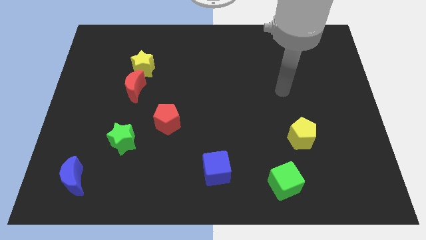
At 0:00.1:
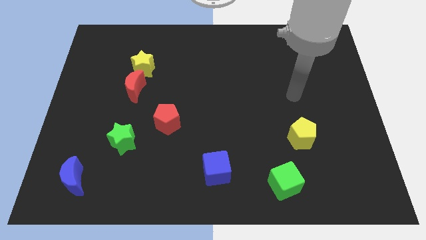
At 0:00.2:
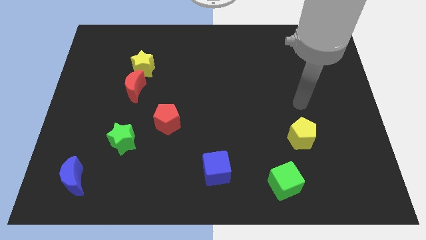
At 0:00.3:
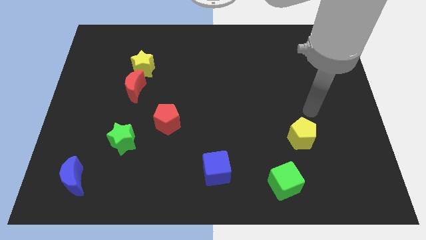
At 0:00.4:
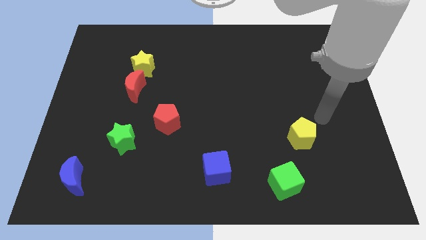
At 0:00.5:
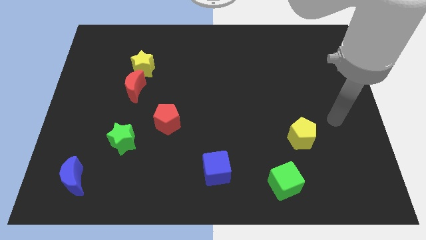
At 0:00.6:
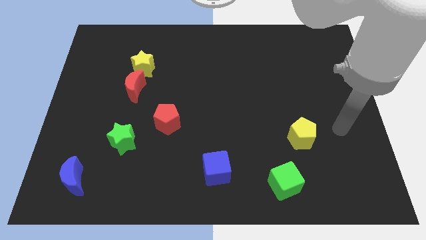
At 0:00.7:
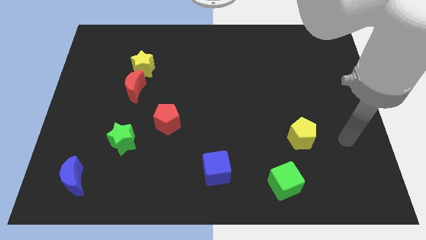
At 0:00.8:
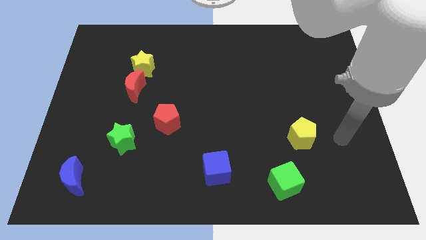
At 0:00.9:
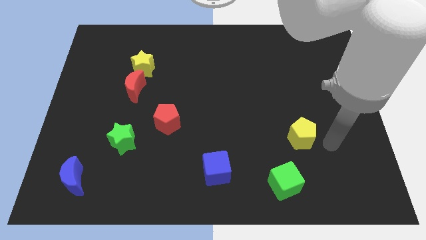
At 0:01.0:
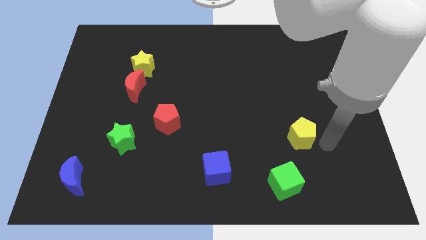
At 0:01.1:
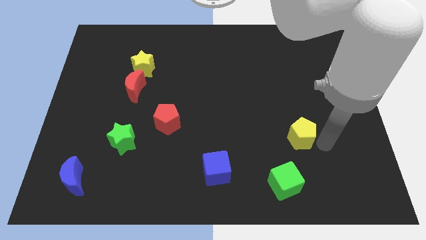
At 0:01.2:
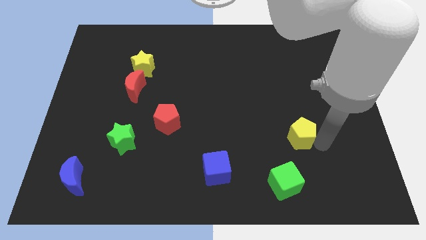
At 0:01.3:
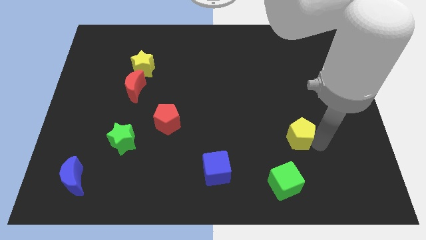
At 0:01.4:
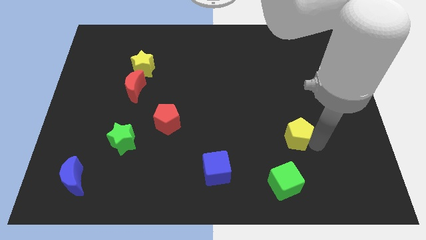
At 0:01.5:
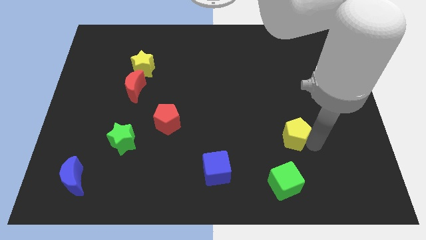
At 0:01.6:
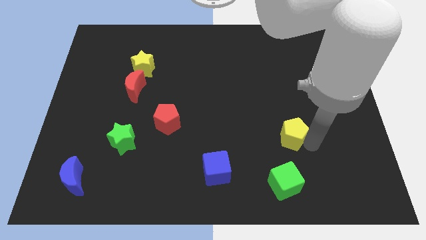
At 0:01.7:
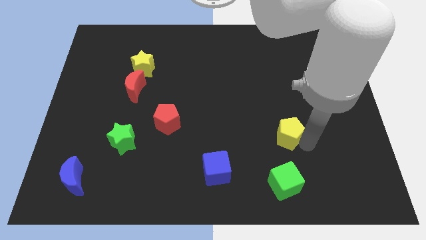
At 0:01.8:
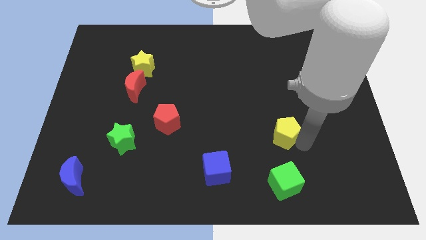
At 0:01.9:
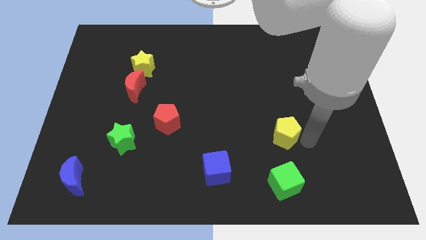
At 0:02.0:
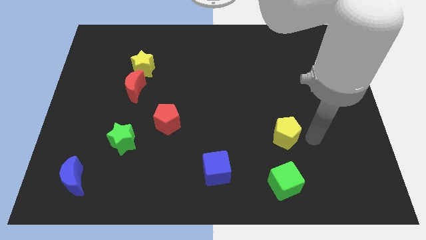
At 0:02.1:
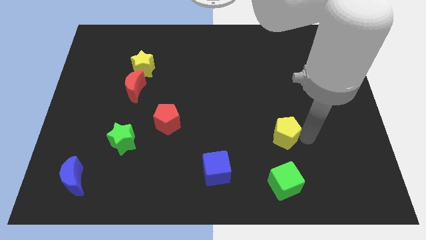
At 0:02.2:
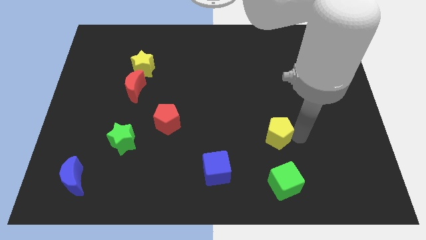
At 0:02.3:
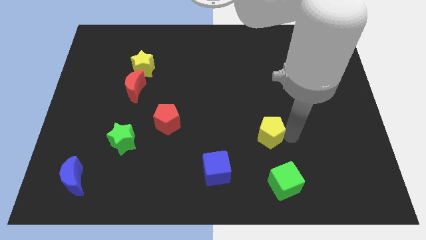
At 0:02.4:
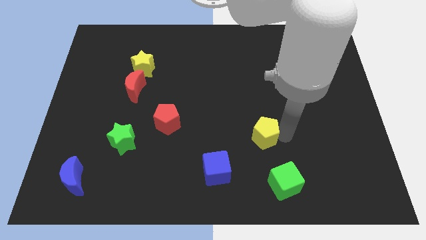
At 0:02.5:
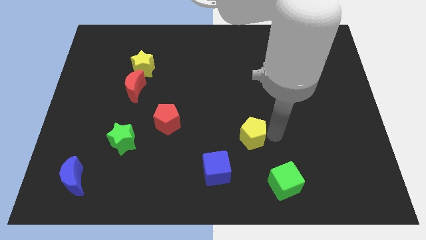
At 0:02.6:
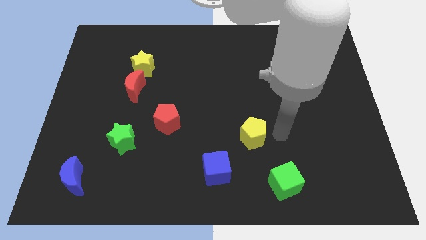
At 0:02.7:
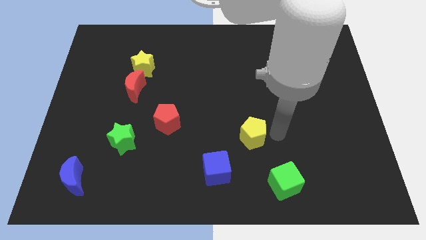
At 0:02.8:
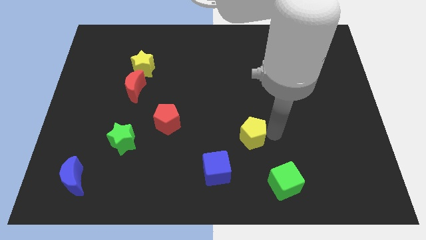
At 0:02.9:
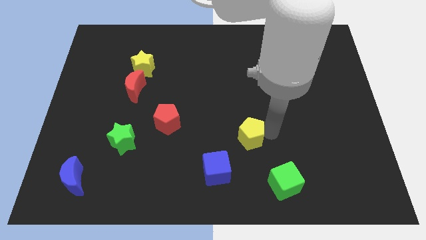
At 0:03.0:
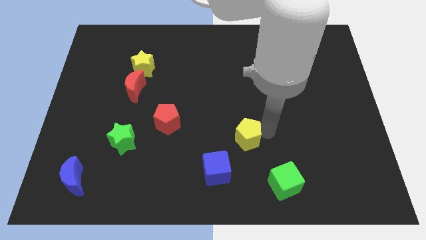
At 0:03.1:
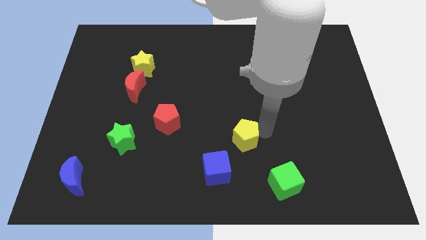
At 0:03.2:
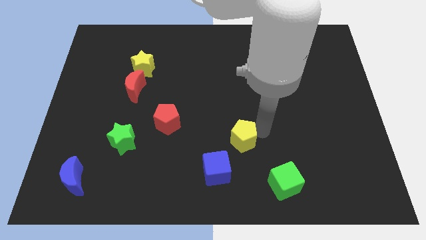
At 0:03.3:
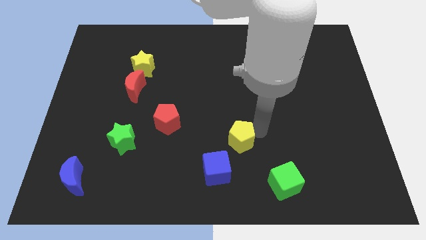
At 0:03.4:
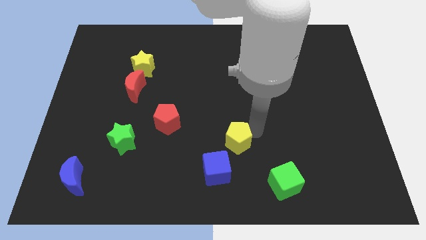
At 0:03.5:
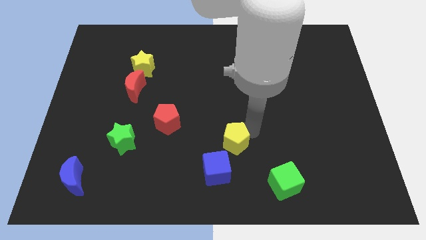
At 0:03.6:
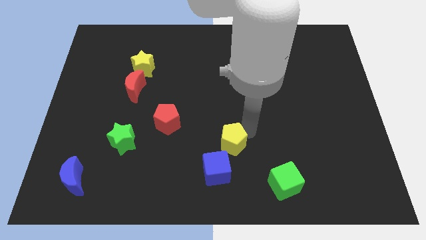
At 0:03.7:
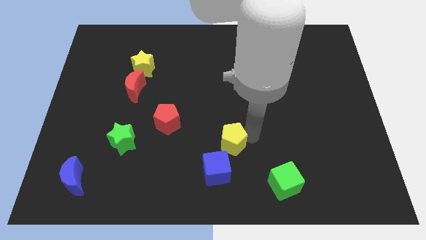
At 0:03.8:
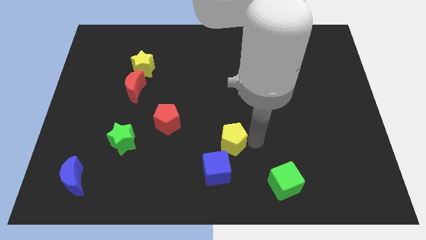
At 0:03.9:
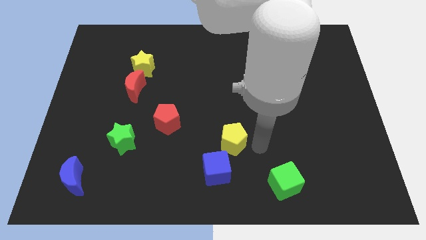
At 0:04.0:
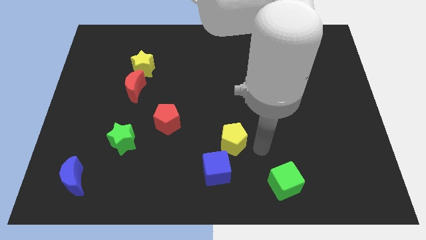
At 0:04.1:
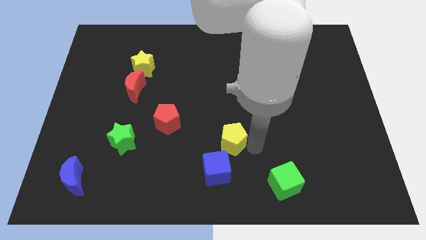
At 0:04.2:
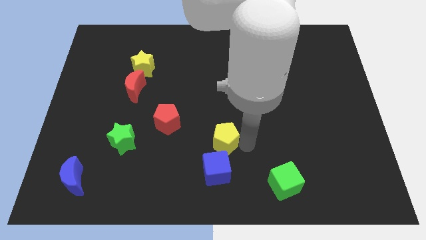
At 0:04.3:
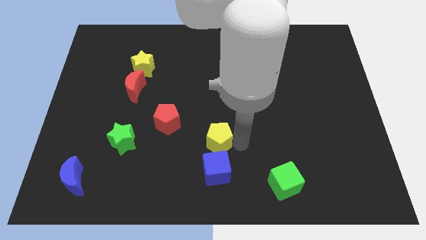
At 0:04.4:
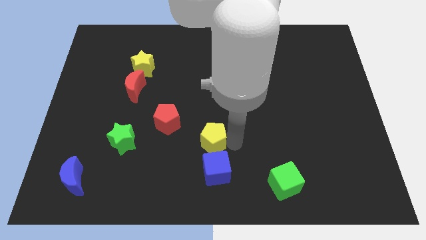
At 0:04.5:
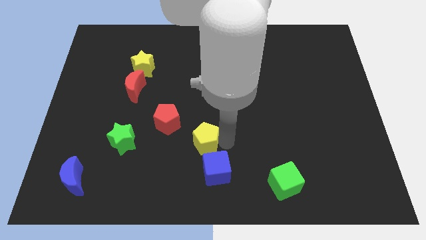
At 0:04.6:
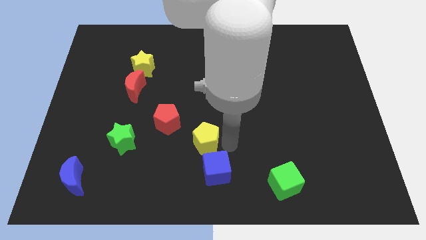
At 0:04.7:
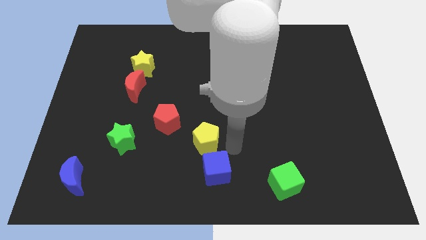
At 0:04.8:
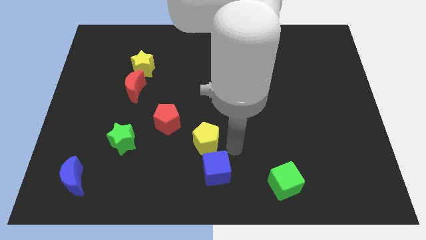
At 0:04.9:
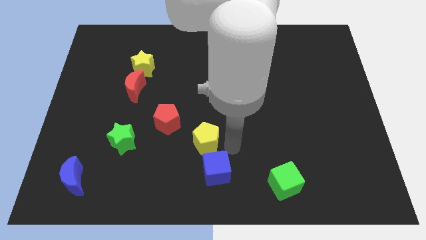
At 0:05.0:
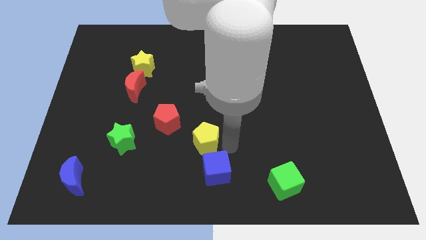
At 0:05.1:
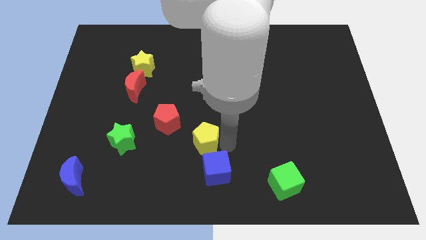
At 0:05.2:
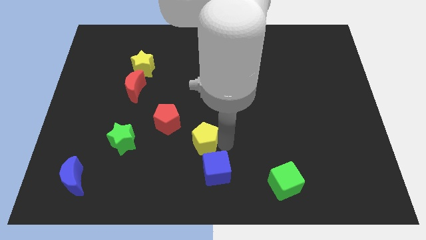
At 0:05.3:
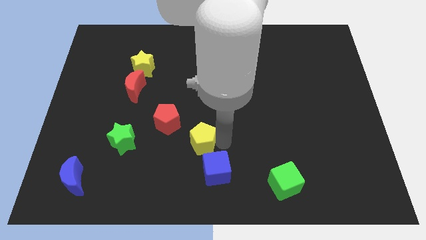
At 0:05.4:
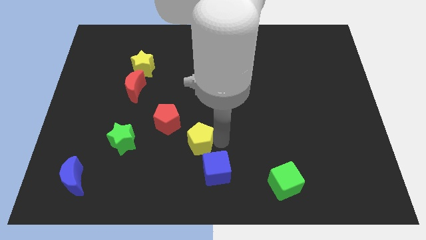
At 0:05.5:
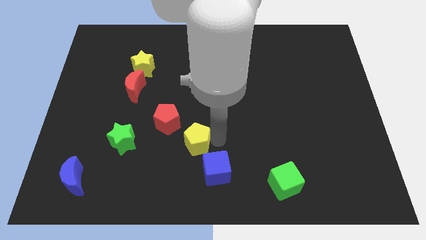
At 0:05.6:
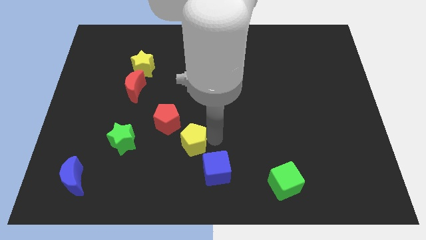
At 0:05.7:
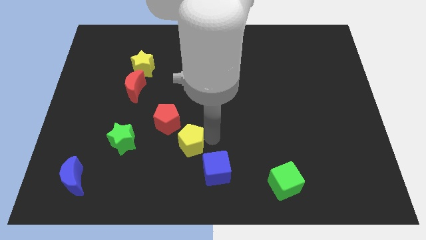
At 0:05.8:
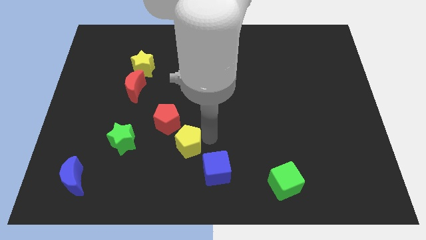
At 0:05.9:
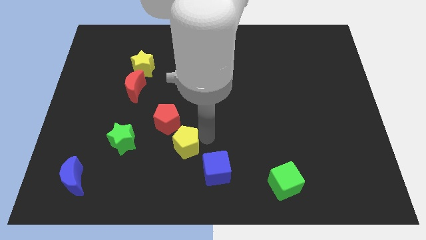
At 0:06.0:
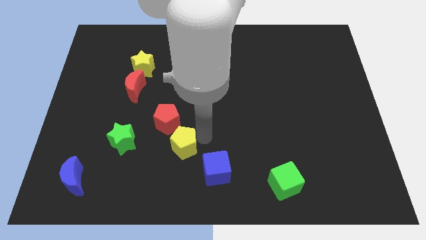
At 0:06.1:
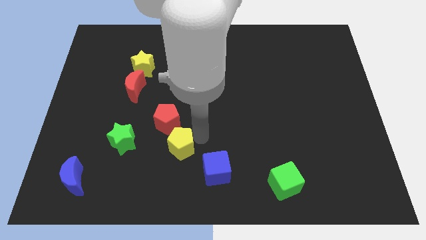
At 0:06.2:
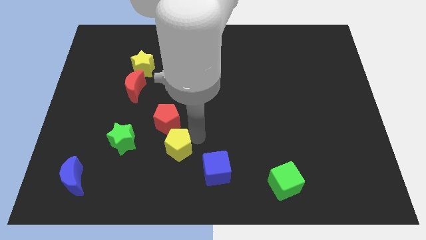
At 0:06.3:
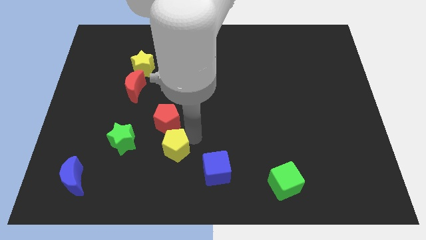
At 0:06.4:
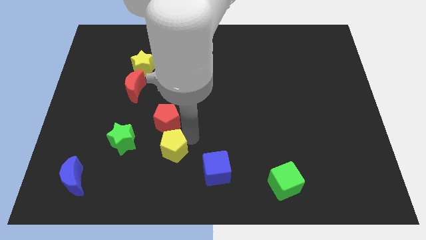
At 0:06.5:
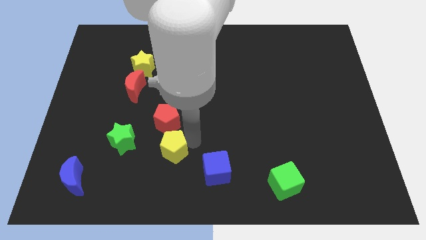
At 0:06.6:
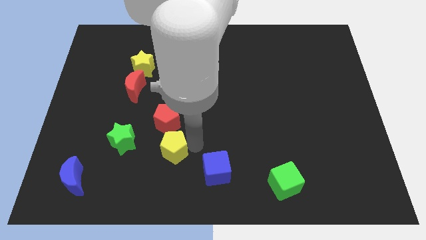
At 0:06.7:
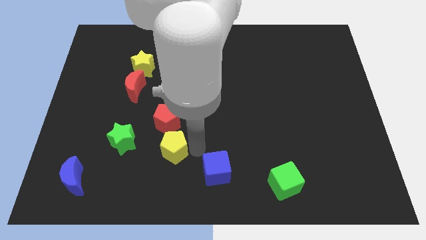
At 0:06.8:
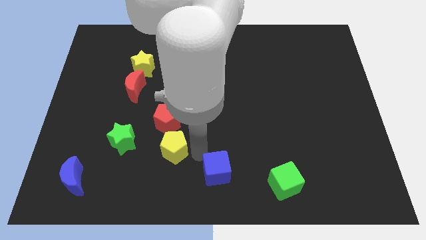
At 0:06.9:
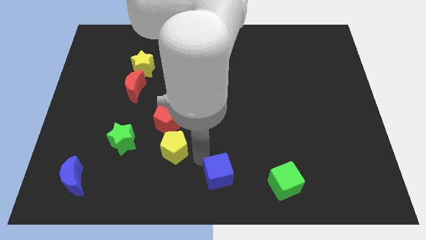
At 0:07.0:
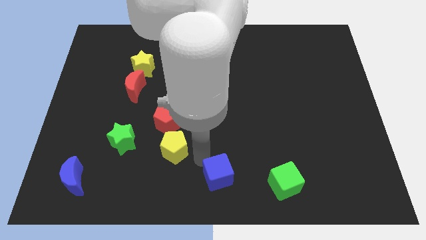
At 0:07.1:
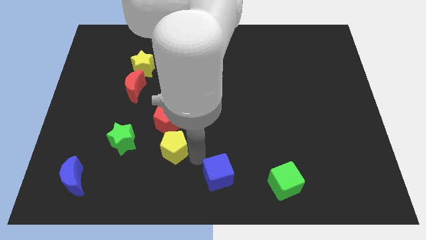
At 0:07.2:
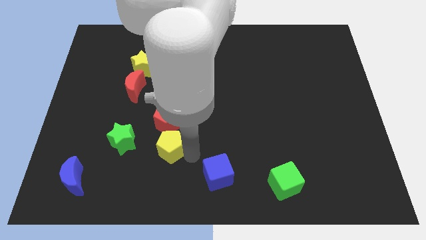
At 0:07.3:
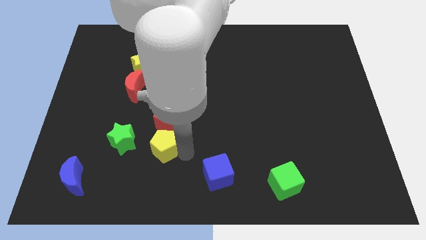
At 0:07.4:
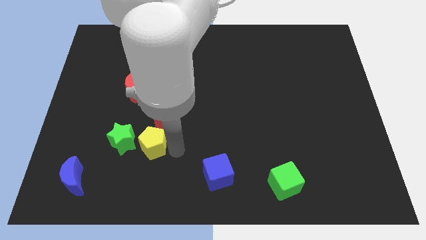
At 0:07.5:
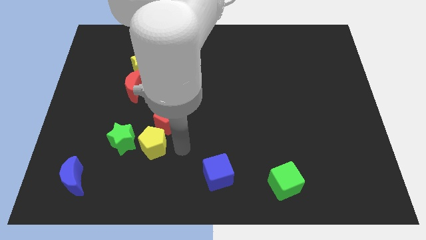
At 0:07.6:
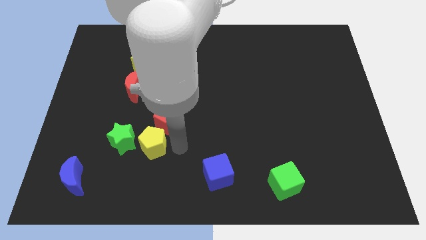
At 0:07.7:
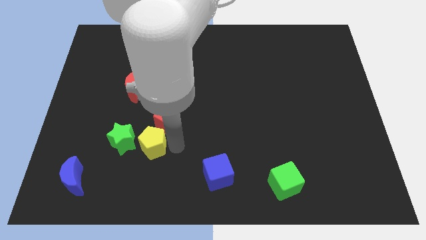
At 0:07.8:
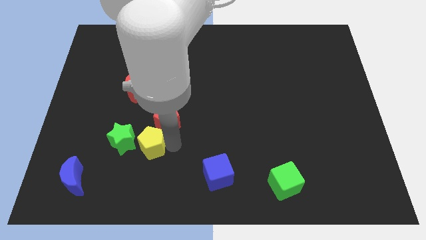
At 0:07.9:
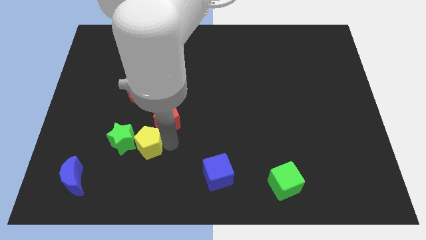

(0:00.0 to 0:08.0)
push the yellow pentagon close to the green star

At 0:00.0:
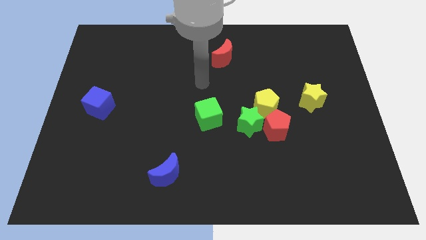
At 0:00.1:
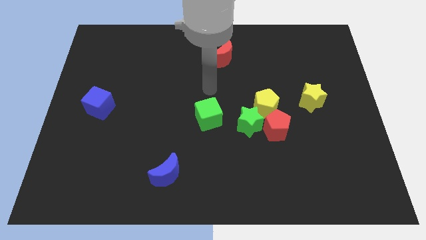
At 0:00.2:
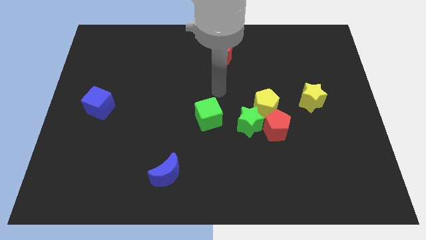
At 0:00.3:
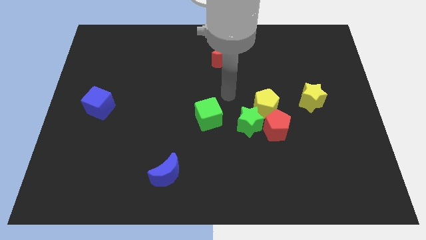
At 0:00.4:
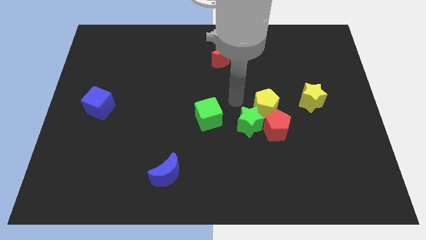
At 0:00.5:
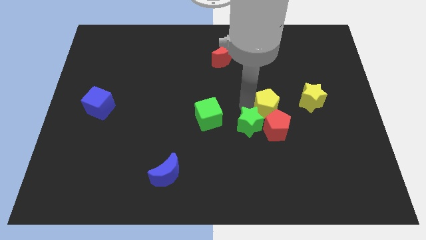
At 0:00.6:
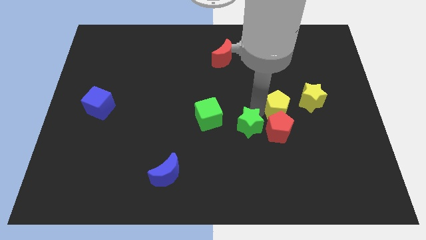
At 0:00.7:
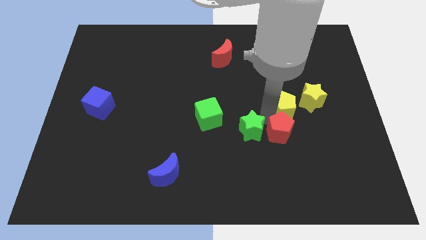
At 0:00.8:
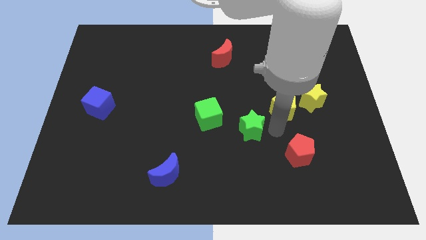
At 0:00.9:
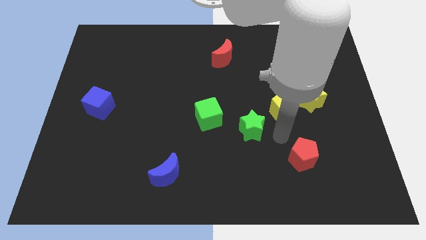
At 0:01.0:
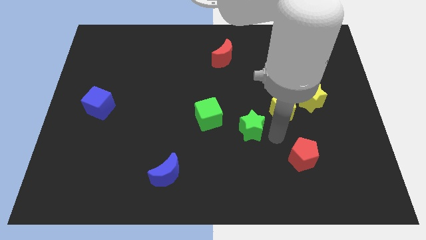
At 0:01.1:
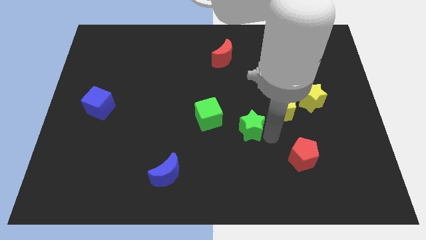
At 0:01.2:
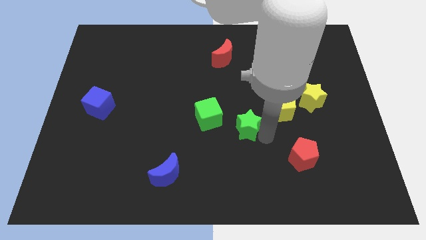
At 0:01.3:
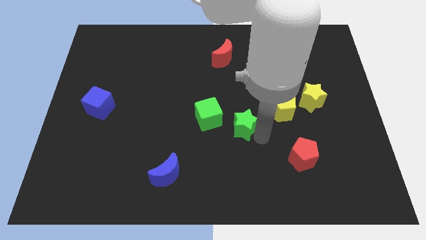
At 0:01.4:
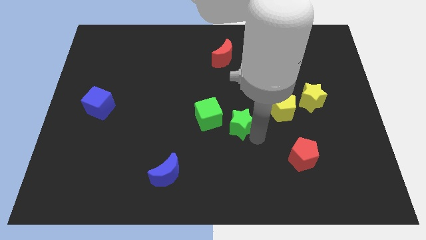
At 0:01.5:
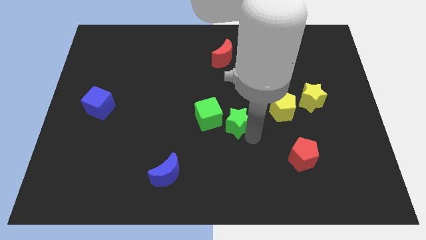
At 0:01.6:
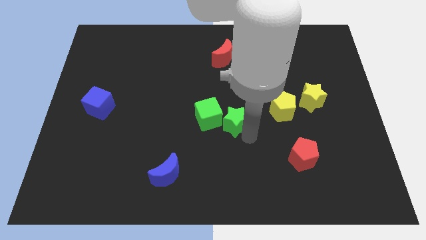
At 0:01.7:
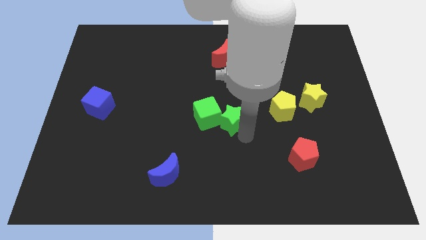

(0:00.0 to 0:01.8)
push the green star to the green cube
